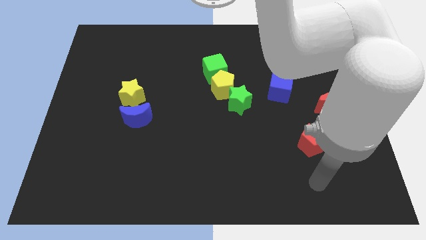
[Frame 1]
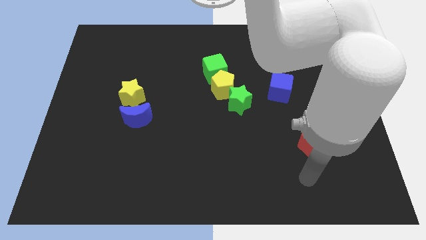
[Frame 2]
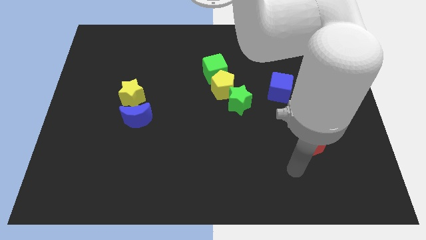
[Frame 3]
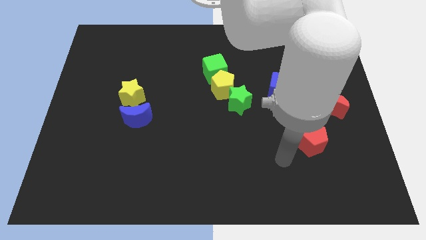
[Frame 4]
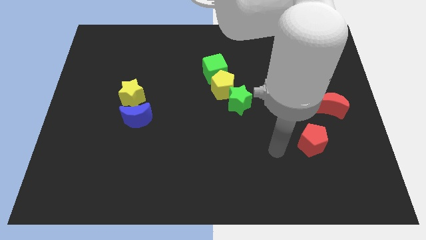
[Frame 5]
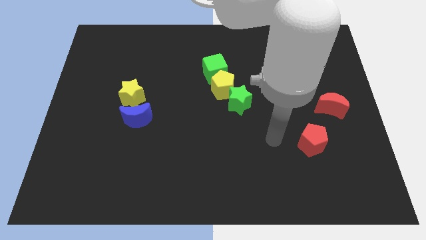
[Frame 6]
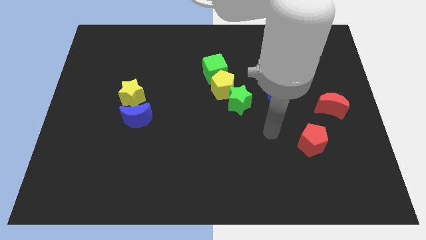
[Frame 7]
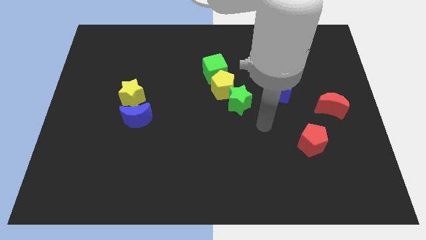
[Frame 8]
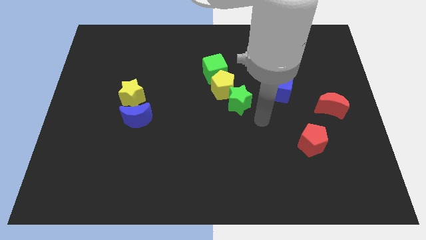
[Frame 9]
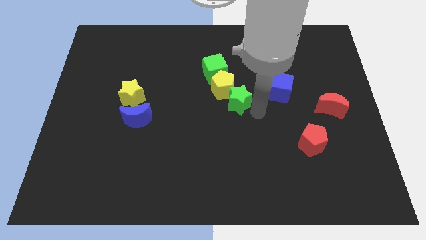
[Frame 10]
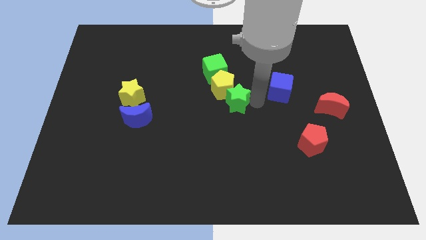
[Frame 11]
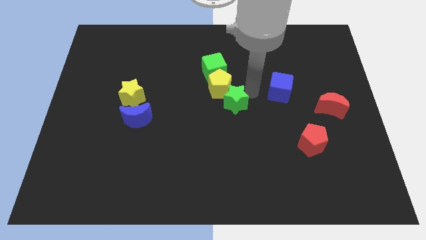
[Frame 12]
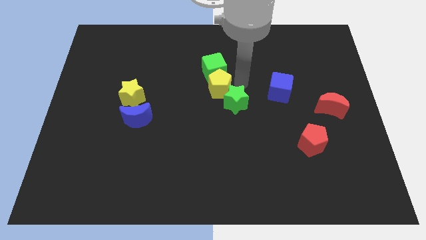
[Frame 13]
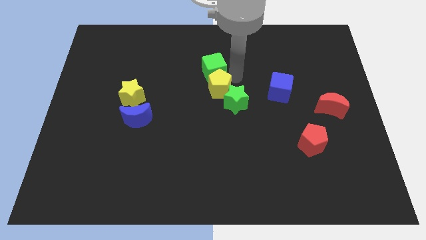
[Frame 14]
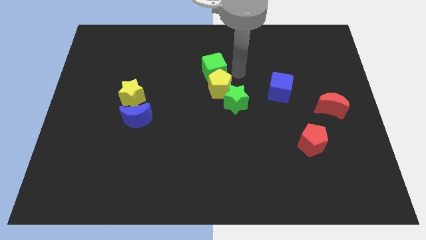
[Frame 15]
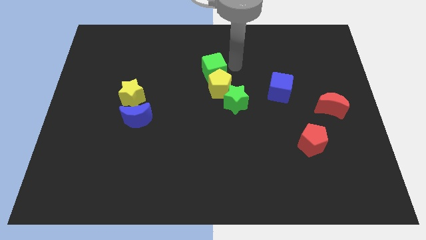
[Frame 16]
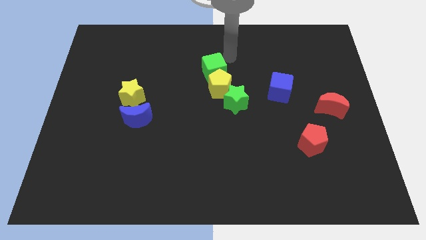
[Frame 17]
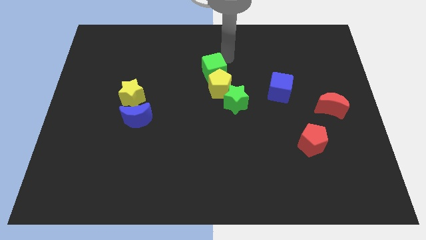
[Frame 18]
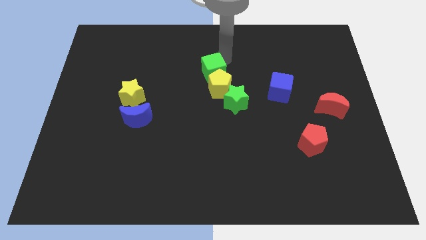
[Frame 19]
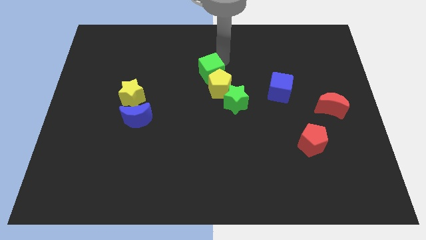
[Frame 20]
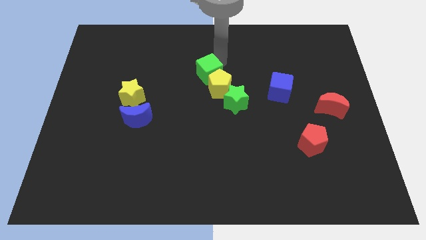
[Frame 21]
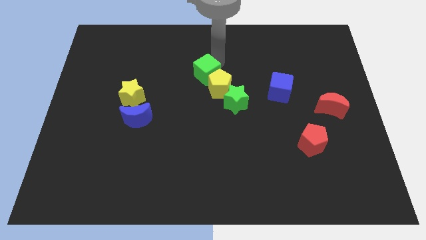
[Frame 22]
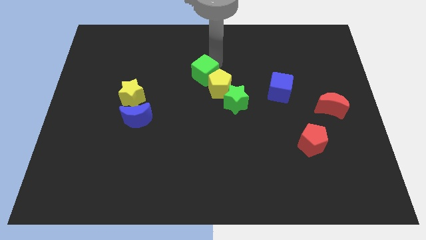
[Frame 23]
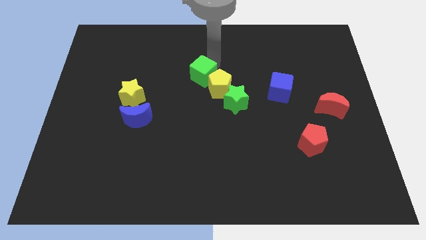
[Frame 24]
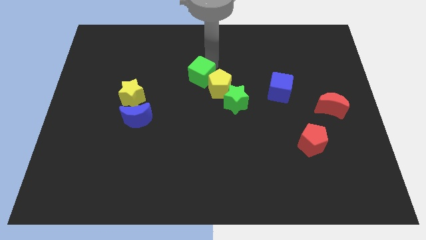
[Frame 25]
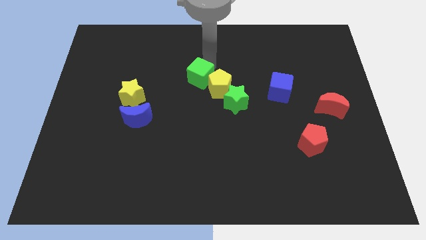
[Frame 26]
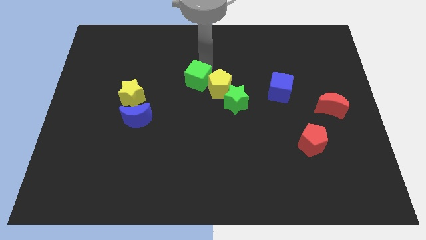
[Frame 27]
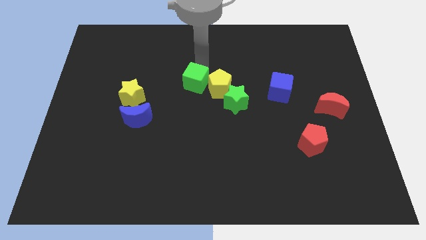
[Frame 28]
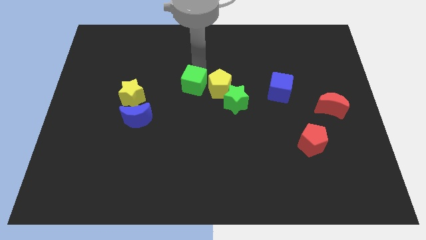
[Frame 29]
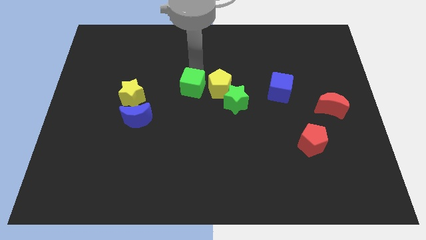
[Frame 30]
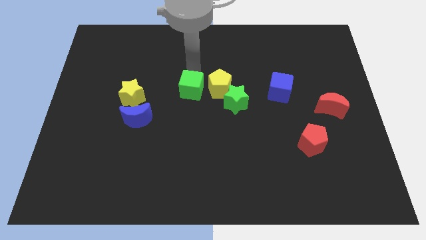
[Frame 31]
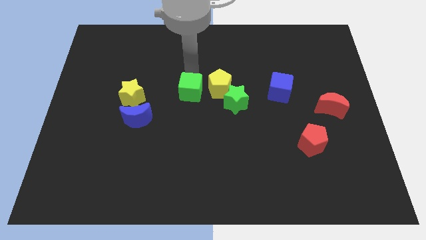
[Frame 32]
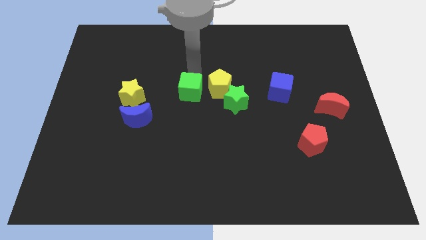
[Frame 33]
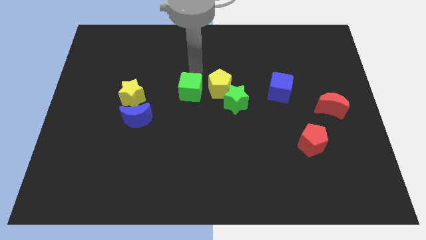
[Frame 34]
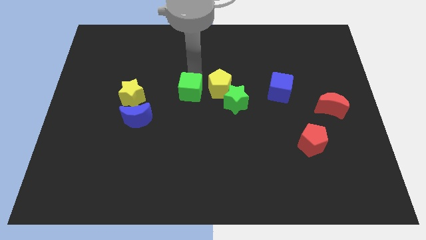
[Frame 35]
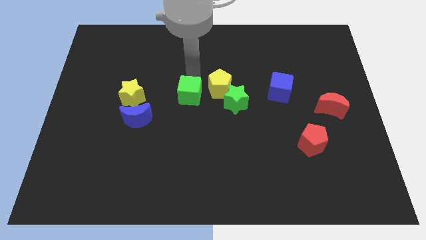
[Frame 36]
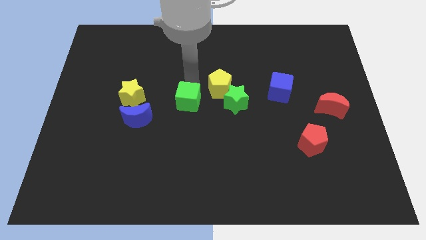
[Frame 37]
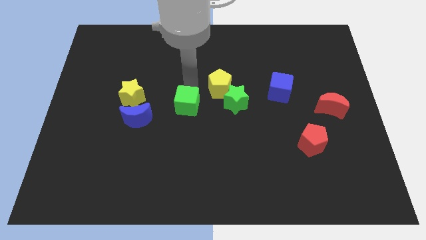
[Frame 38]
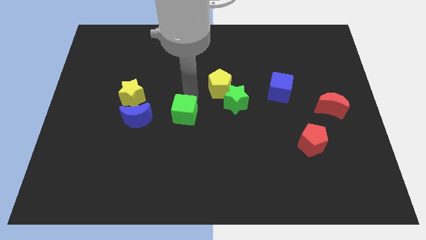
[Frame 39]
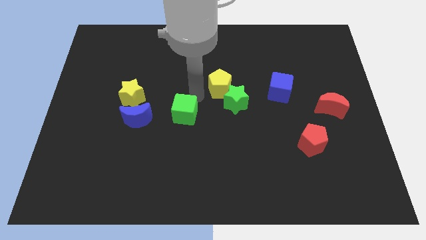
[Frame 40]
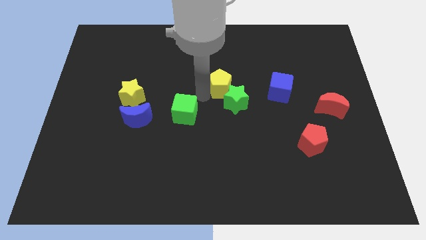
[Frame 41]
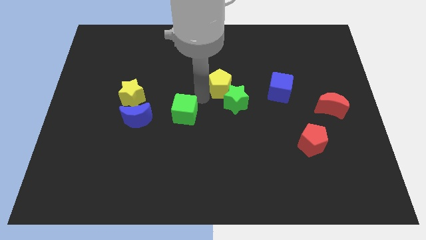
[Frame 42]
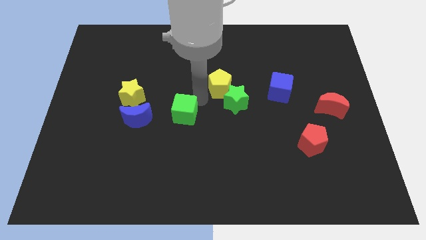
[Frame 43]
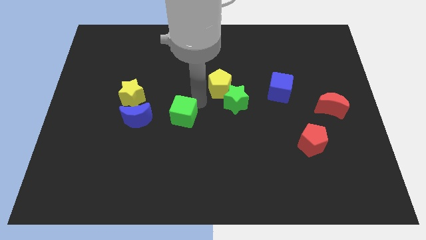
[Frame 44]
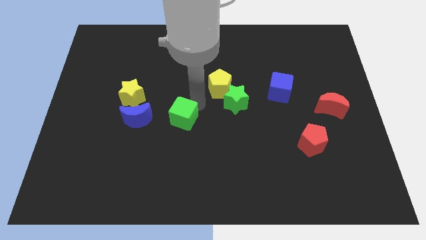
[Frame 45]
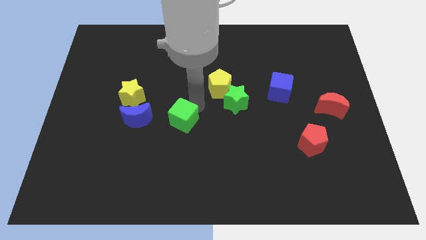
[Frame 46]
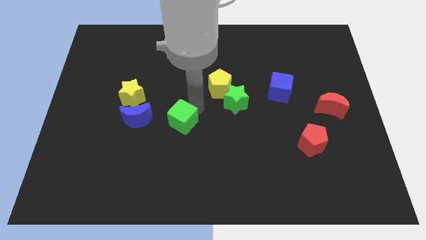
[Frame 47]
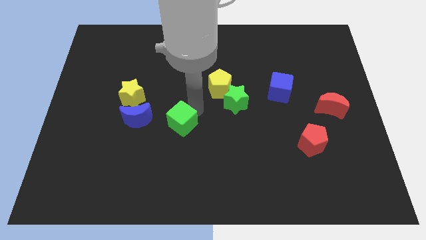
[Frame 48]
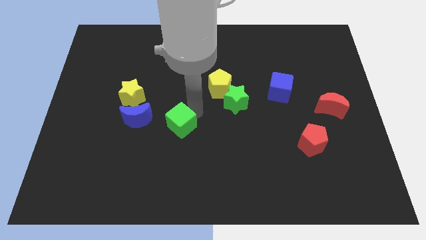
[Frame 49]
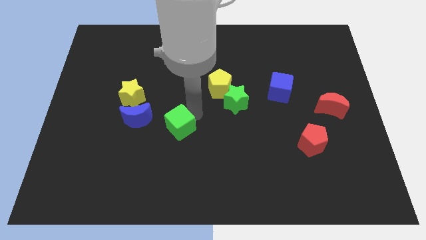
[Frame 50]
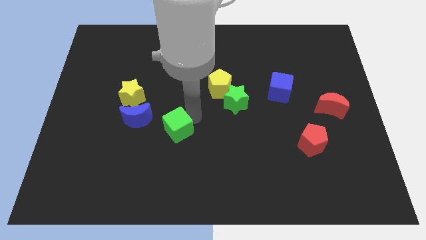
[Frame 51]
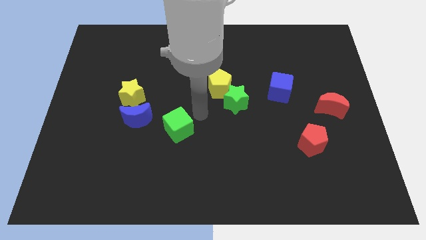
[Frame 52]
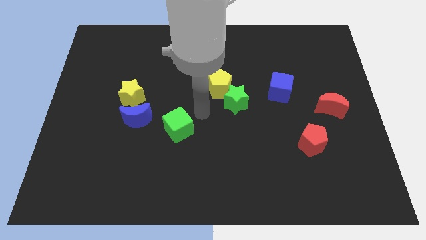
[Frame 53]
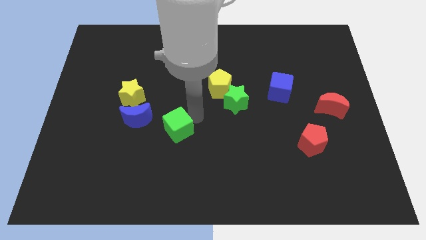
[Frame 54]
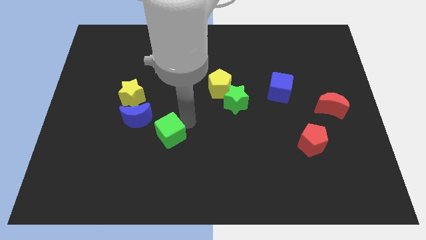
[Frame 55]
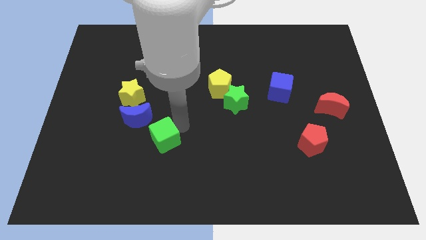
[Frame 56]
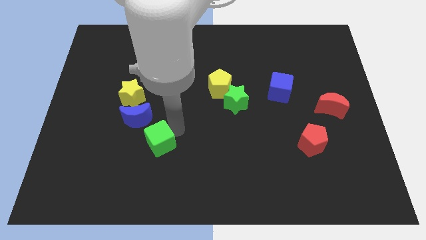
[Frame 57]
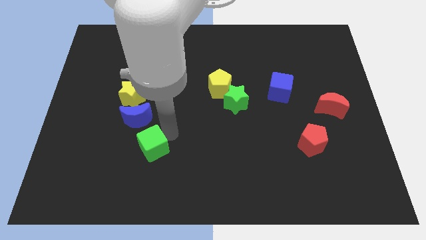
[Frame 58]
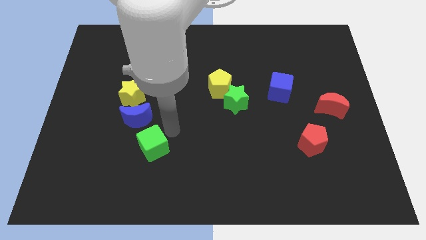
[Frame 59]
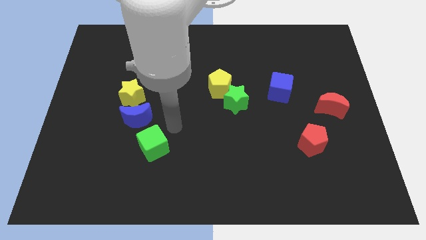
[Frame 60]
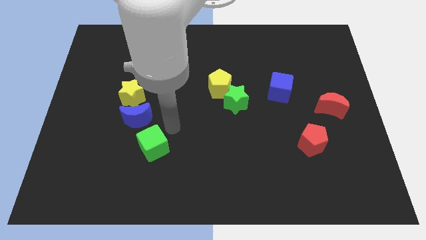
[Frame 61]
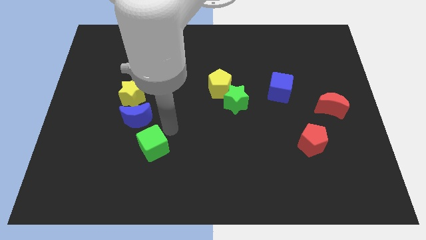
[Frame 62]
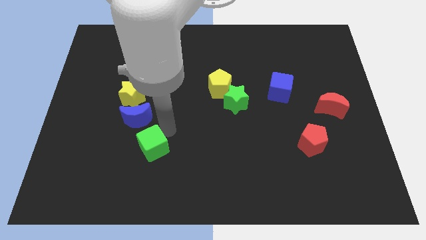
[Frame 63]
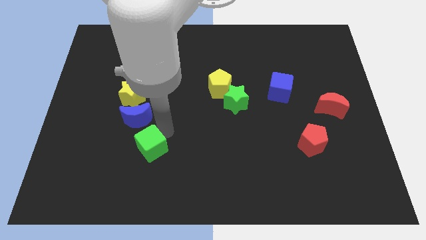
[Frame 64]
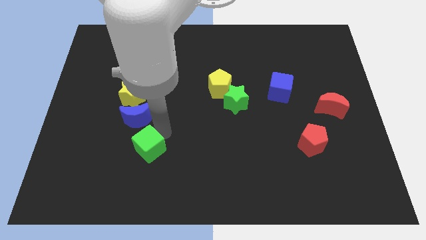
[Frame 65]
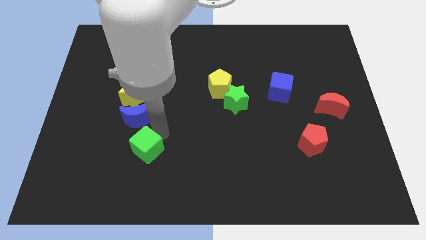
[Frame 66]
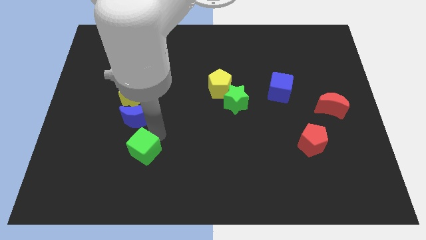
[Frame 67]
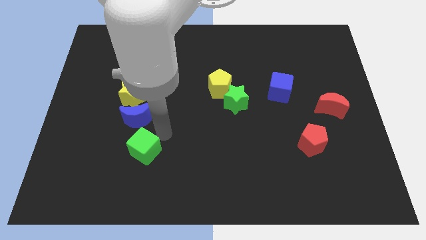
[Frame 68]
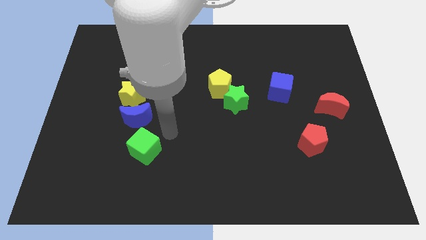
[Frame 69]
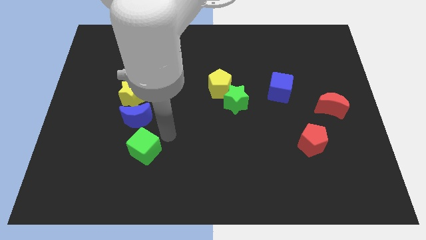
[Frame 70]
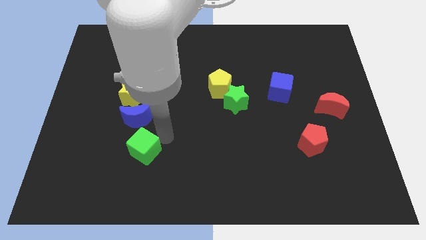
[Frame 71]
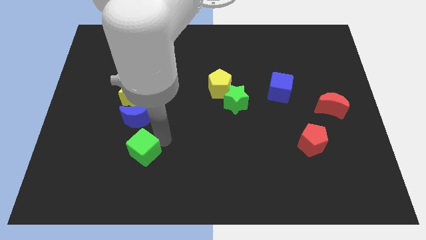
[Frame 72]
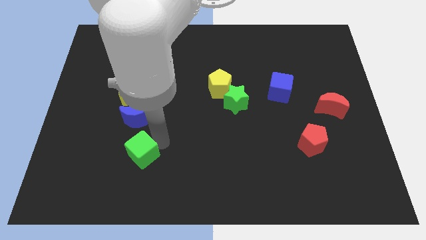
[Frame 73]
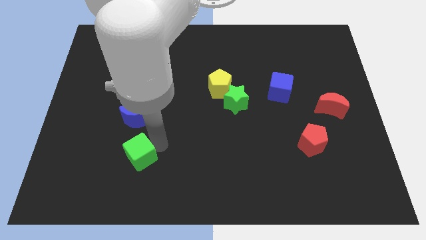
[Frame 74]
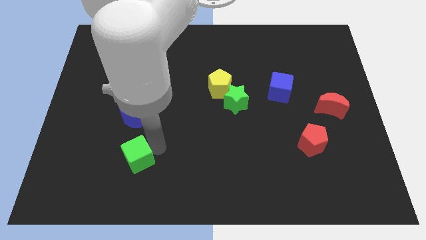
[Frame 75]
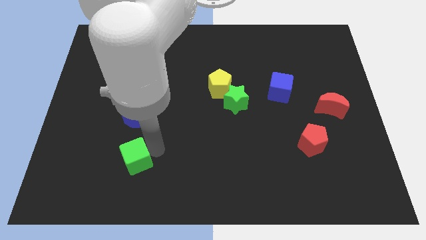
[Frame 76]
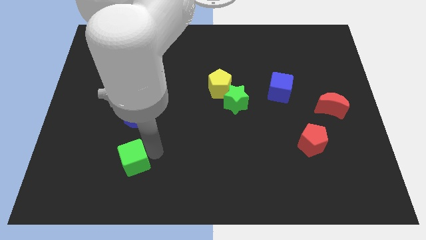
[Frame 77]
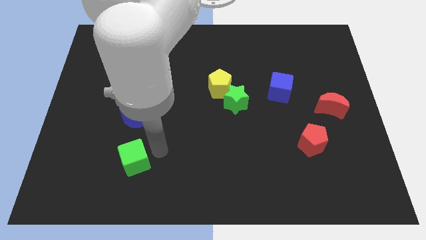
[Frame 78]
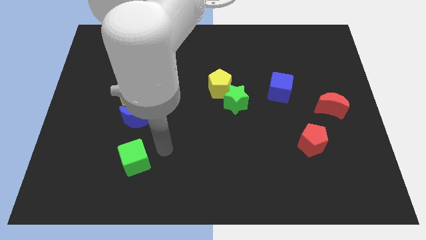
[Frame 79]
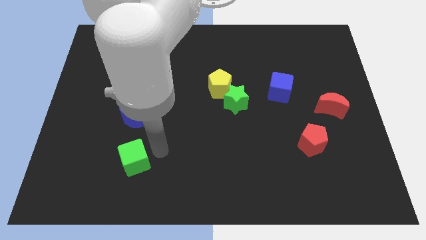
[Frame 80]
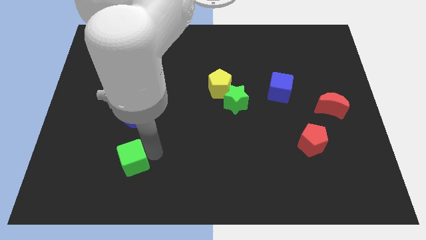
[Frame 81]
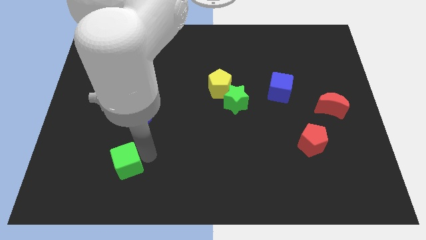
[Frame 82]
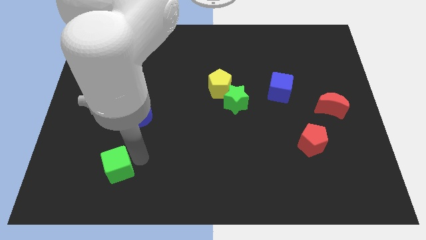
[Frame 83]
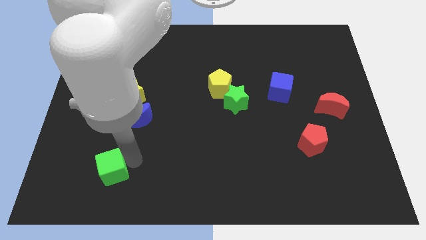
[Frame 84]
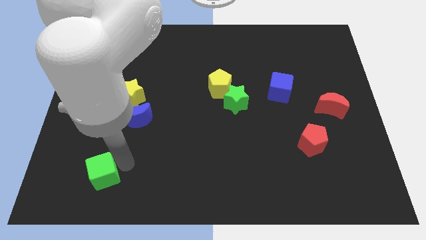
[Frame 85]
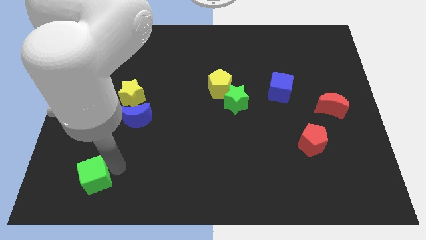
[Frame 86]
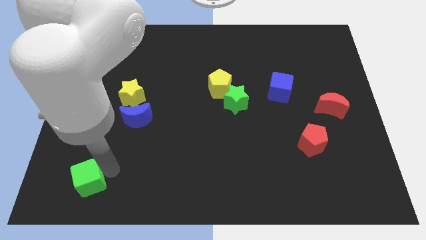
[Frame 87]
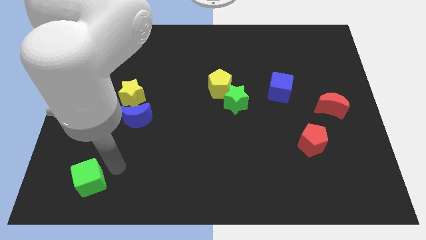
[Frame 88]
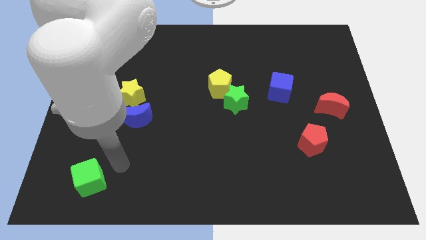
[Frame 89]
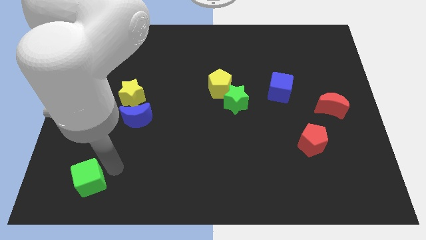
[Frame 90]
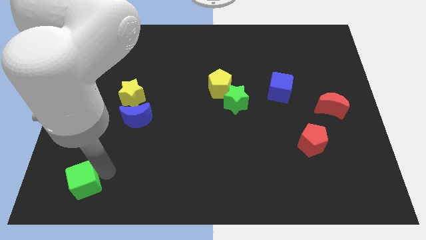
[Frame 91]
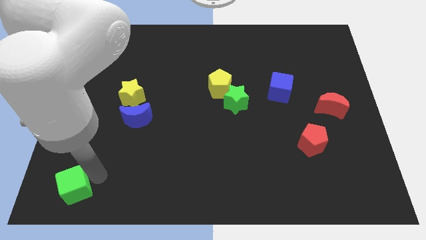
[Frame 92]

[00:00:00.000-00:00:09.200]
slide the green cube to the bottom left
